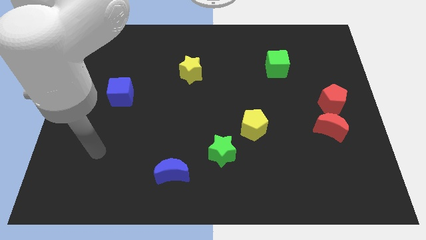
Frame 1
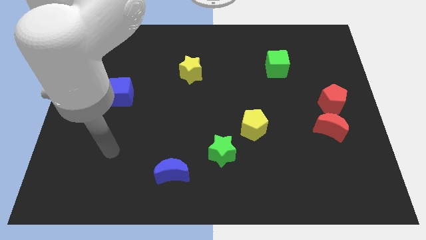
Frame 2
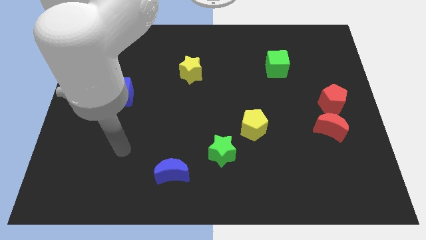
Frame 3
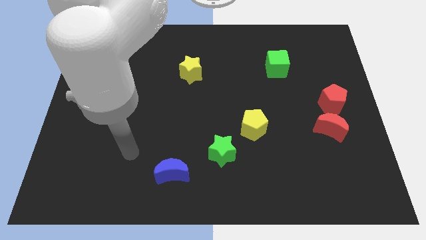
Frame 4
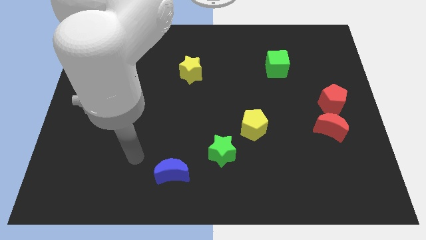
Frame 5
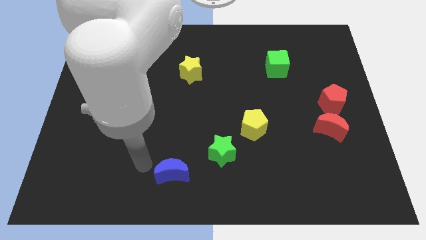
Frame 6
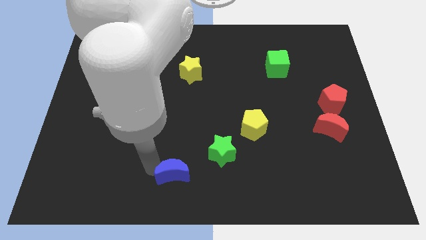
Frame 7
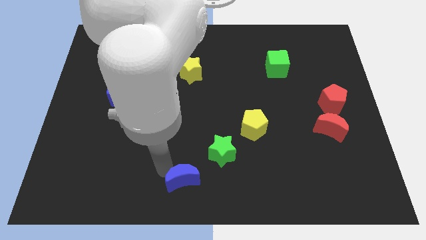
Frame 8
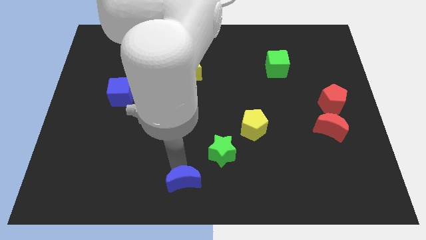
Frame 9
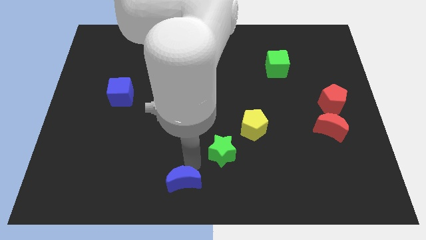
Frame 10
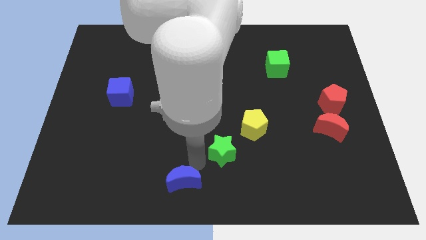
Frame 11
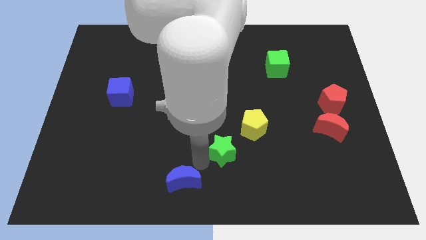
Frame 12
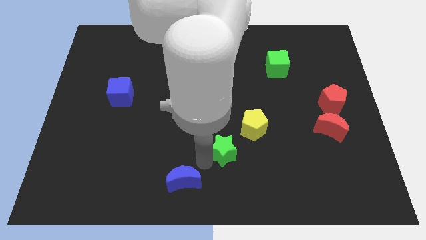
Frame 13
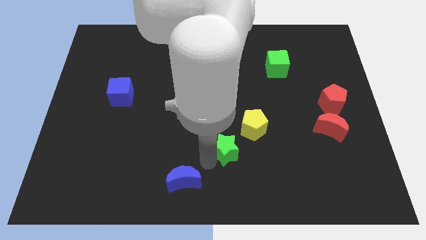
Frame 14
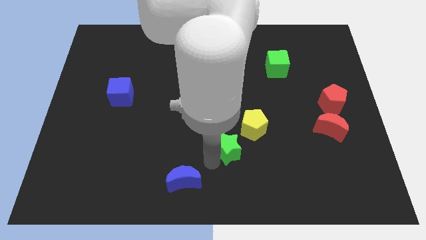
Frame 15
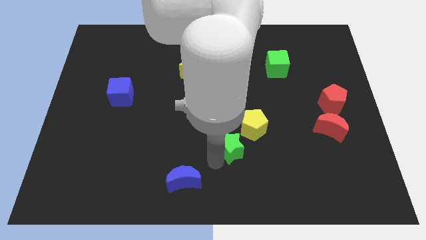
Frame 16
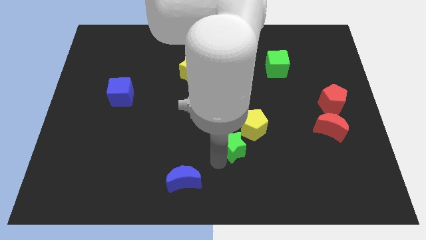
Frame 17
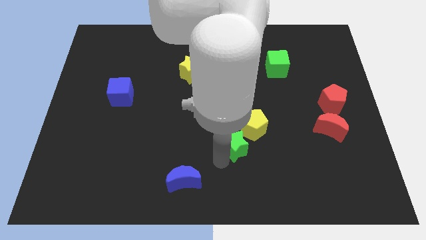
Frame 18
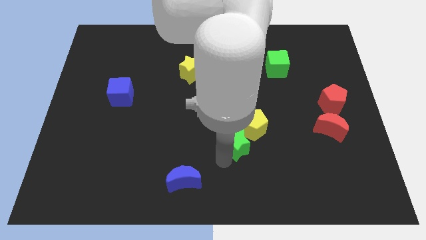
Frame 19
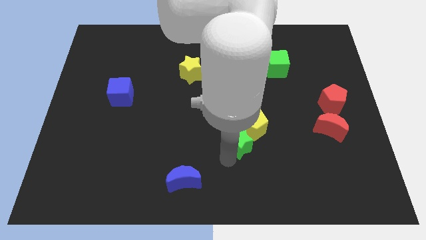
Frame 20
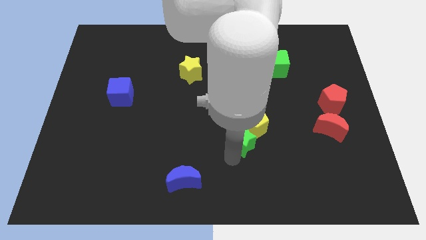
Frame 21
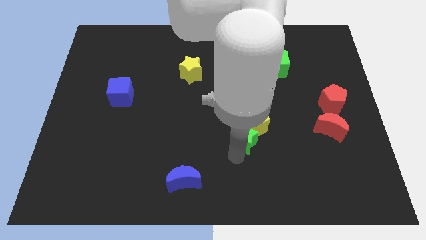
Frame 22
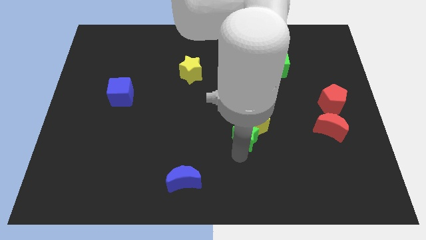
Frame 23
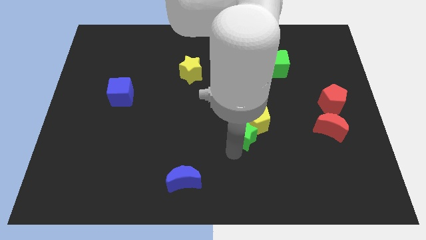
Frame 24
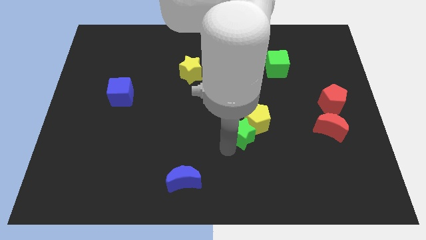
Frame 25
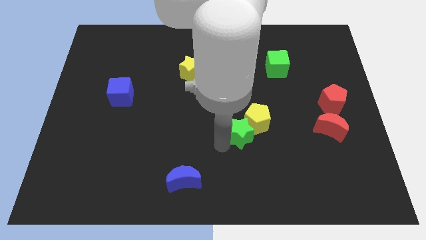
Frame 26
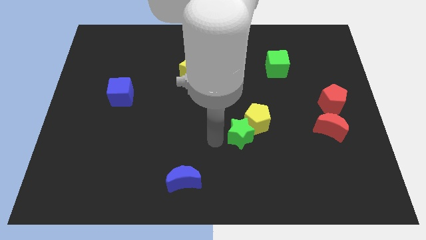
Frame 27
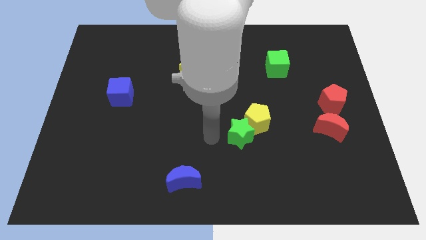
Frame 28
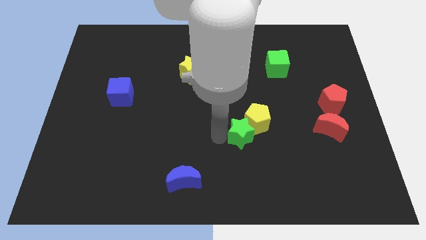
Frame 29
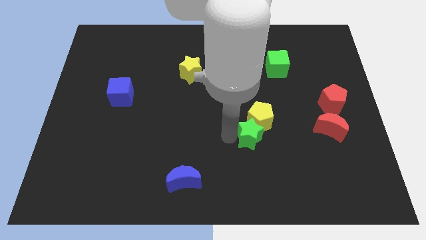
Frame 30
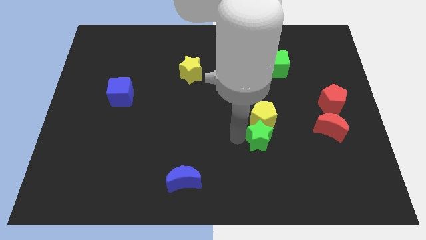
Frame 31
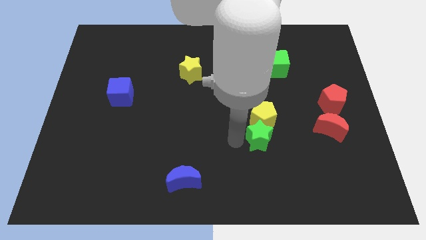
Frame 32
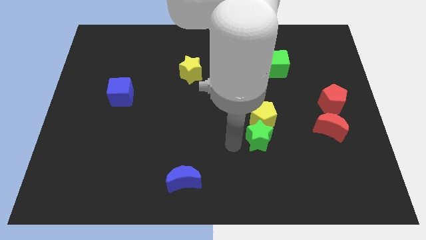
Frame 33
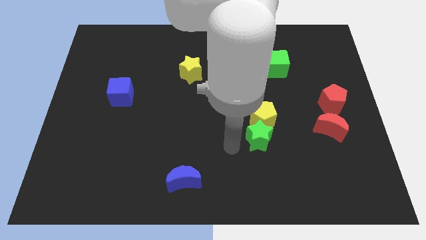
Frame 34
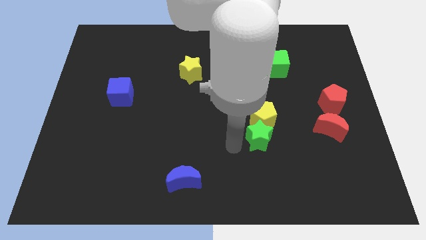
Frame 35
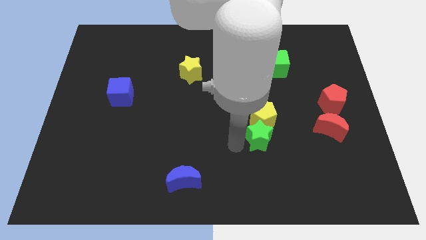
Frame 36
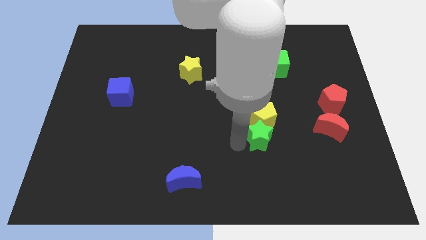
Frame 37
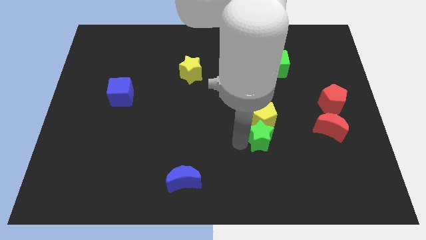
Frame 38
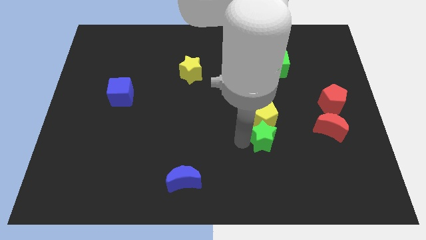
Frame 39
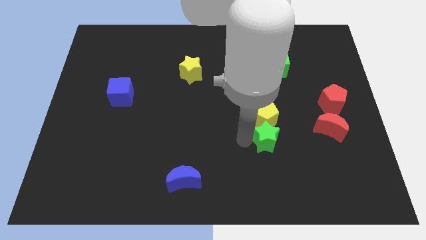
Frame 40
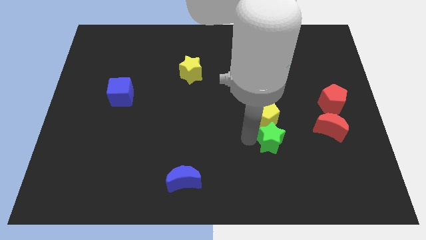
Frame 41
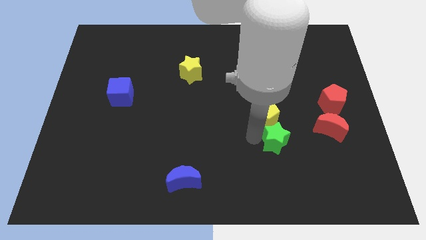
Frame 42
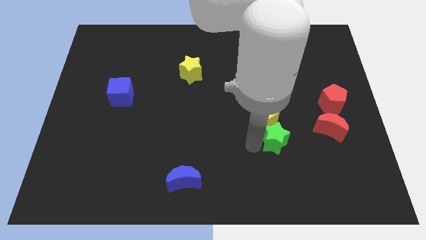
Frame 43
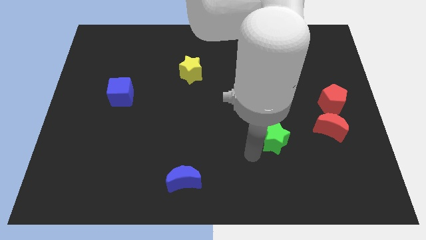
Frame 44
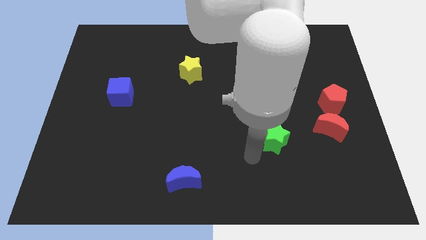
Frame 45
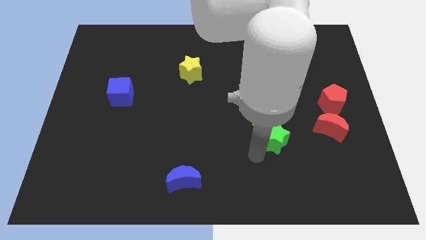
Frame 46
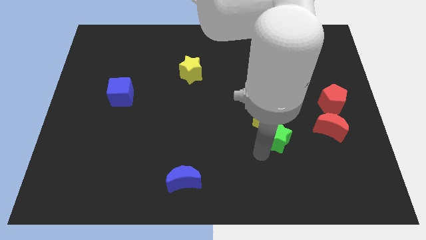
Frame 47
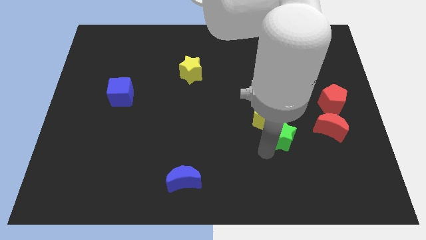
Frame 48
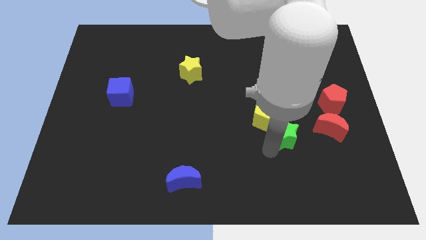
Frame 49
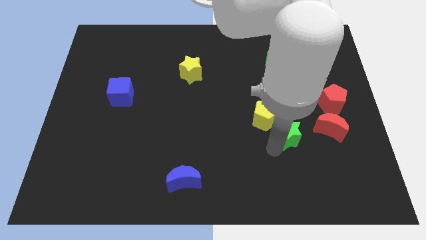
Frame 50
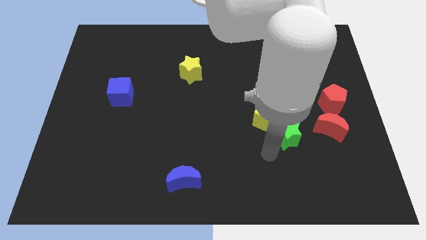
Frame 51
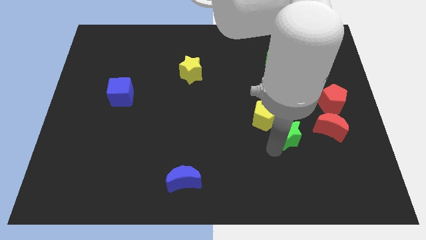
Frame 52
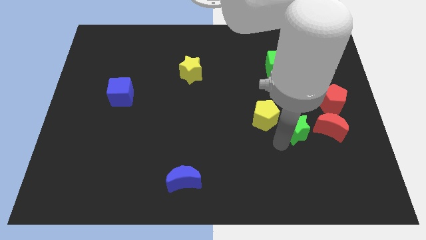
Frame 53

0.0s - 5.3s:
put the green star to the right side of the yellow pentagon
